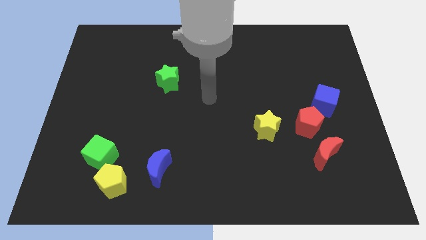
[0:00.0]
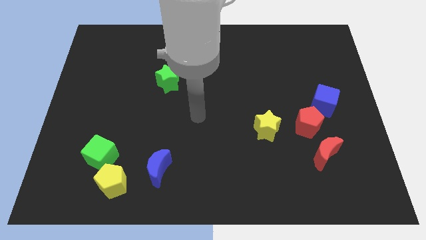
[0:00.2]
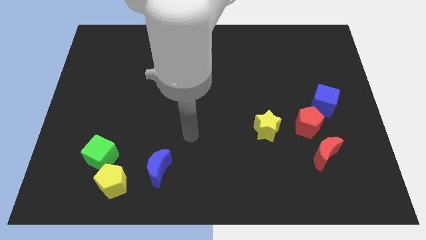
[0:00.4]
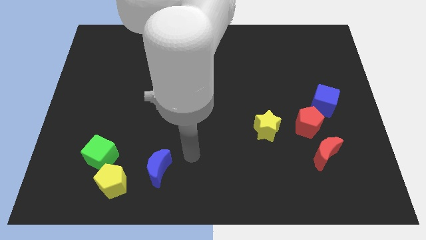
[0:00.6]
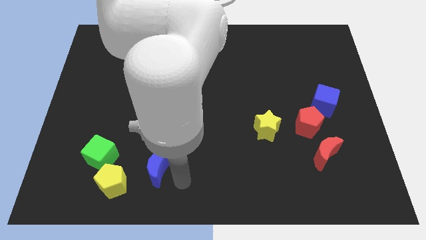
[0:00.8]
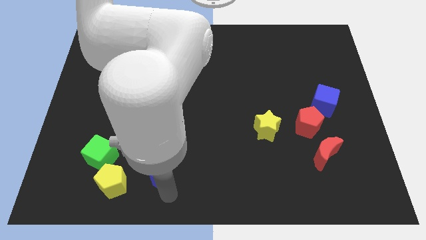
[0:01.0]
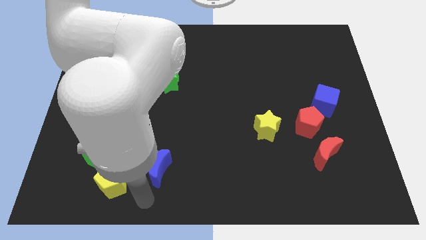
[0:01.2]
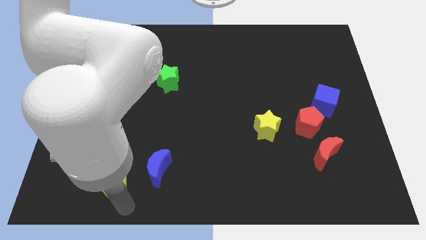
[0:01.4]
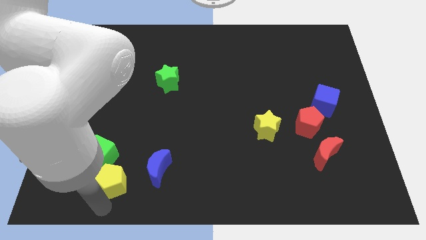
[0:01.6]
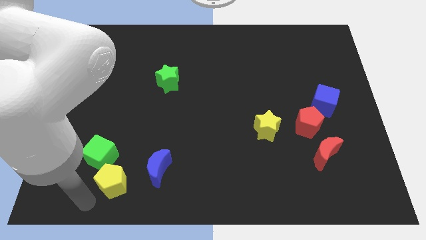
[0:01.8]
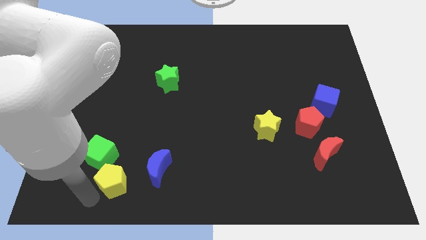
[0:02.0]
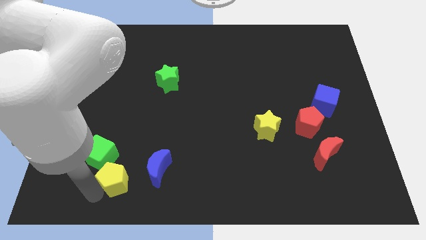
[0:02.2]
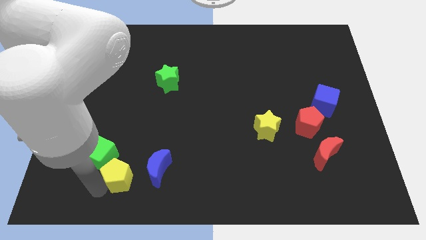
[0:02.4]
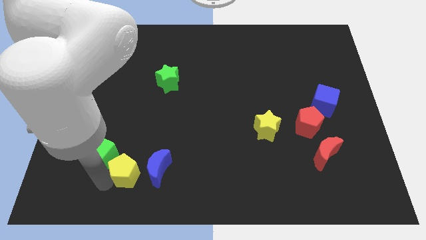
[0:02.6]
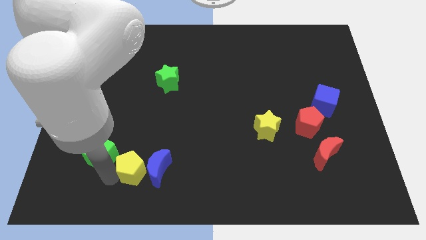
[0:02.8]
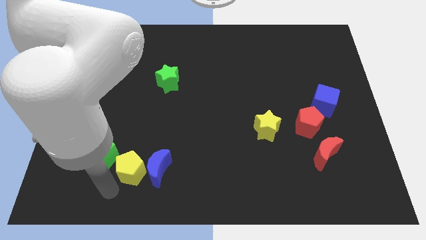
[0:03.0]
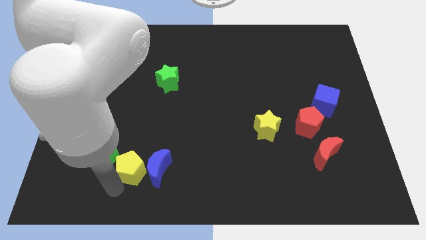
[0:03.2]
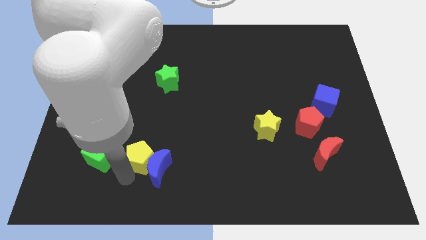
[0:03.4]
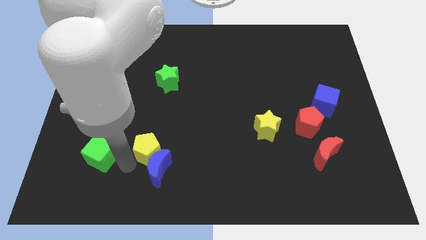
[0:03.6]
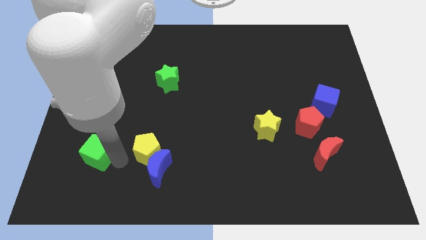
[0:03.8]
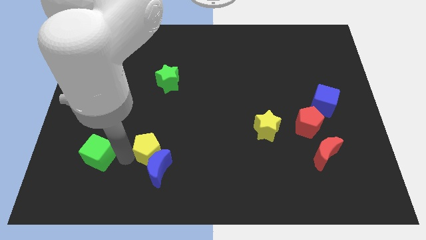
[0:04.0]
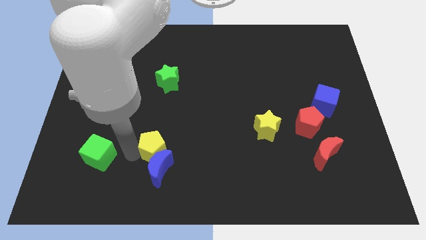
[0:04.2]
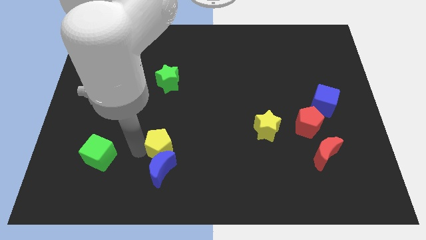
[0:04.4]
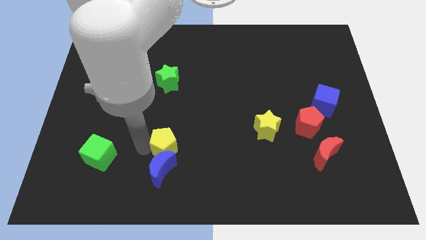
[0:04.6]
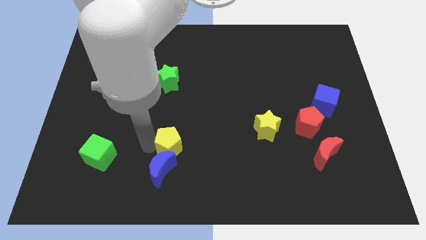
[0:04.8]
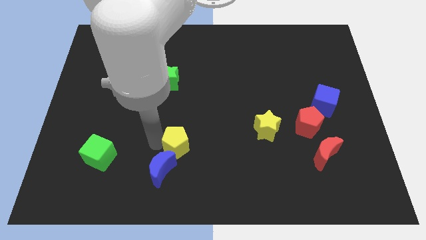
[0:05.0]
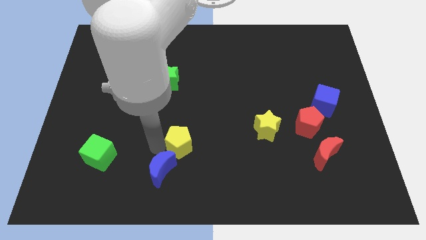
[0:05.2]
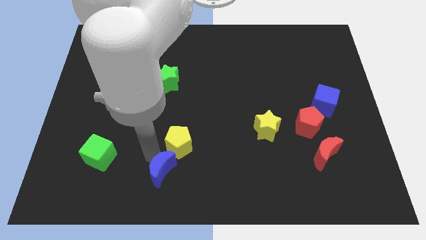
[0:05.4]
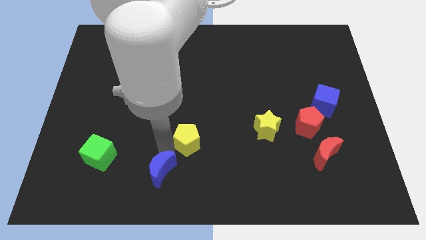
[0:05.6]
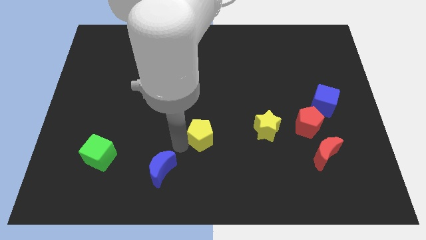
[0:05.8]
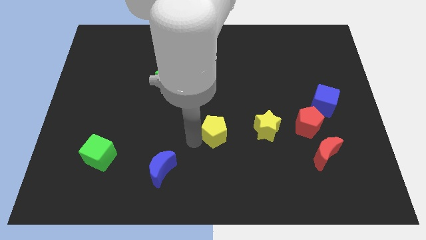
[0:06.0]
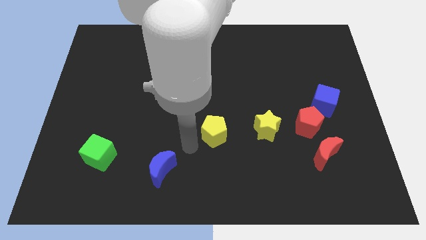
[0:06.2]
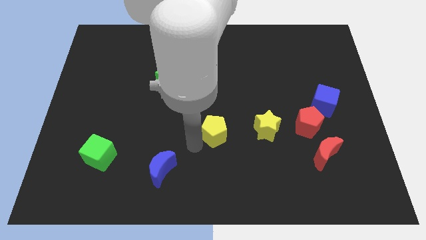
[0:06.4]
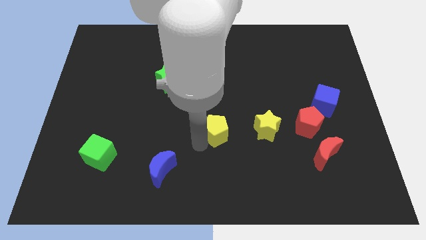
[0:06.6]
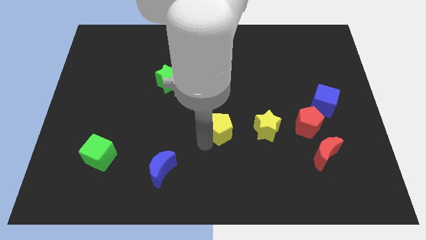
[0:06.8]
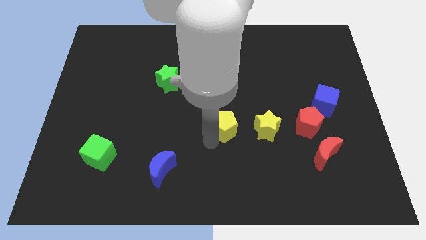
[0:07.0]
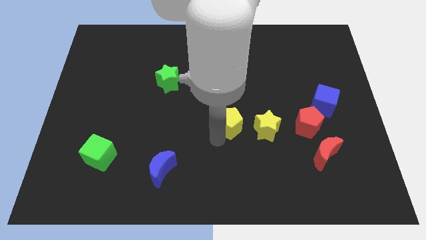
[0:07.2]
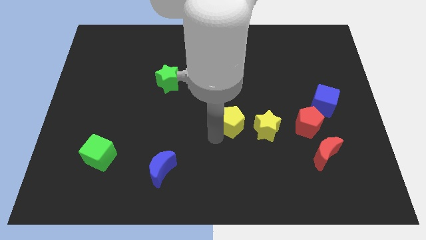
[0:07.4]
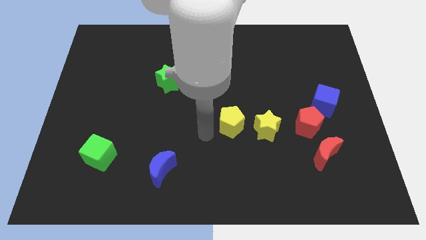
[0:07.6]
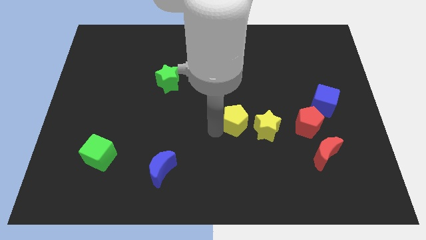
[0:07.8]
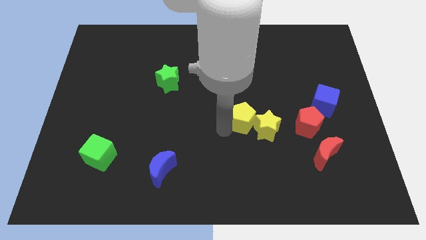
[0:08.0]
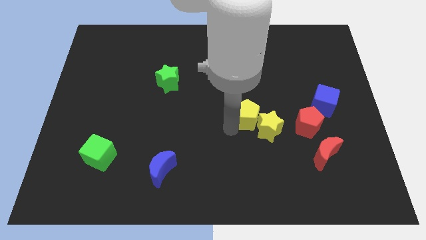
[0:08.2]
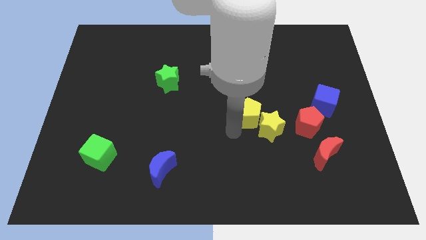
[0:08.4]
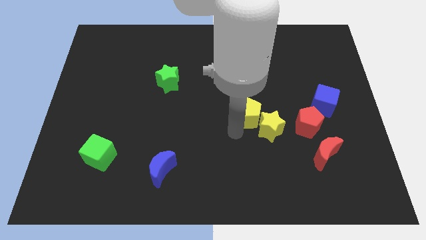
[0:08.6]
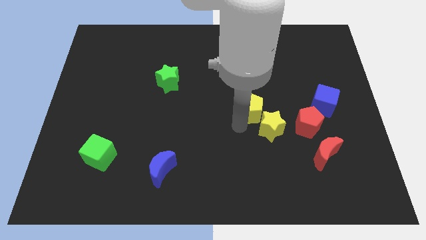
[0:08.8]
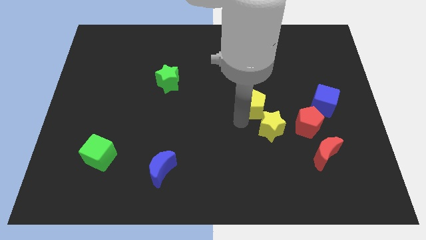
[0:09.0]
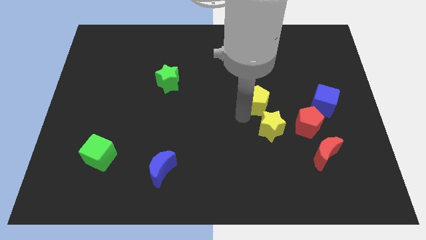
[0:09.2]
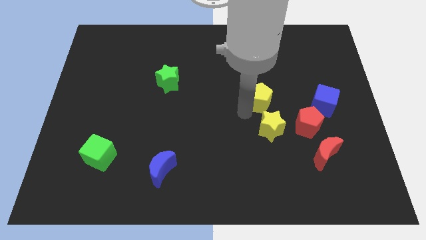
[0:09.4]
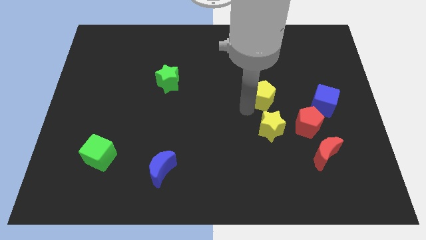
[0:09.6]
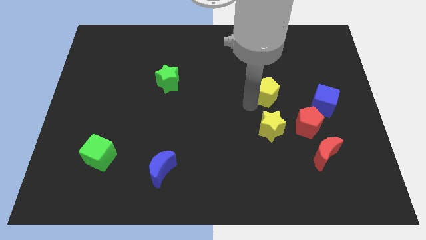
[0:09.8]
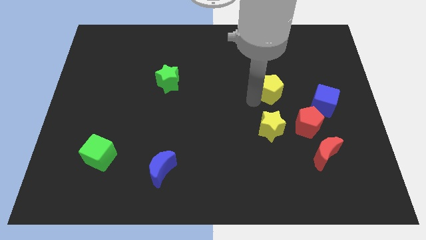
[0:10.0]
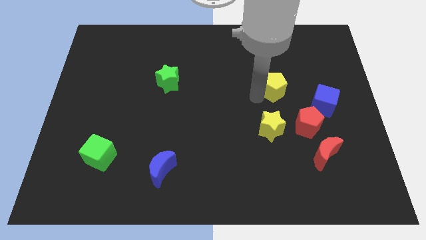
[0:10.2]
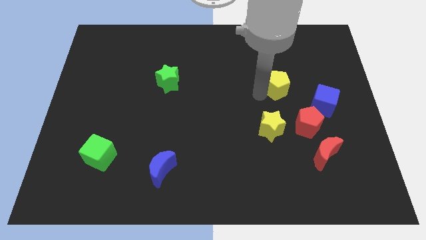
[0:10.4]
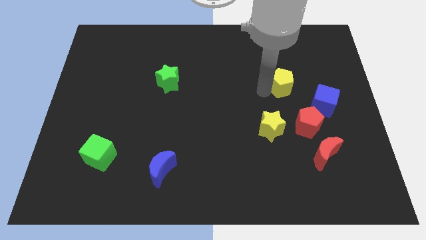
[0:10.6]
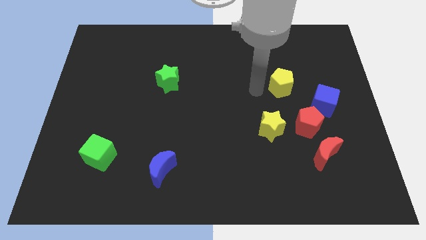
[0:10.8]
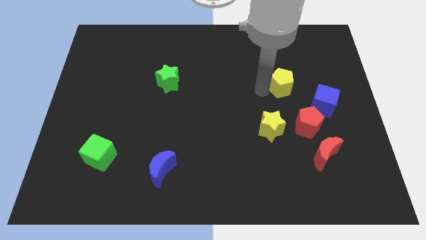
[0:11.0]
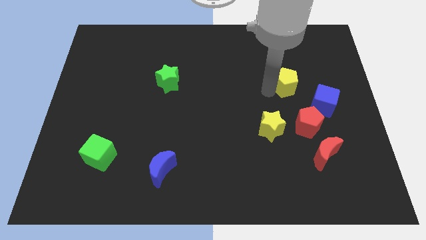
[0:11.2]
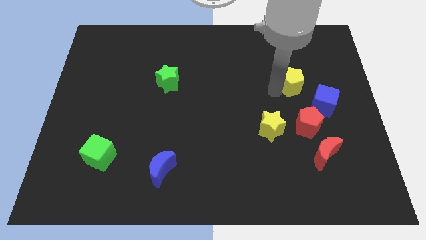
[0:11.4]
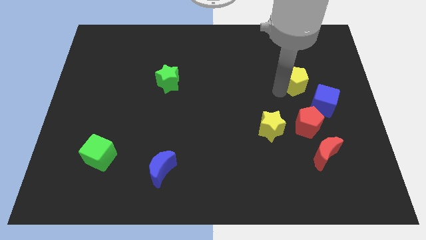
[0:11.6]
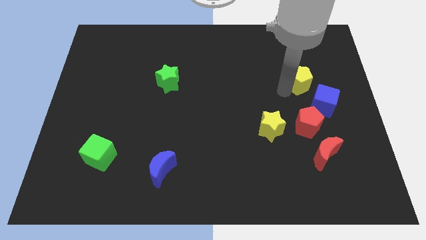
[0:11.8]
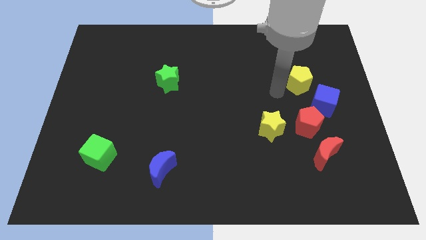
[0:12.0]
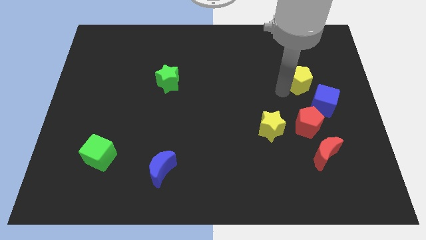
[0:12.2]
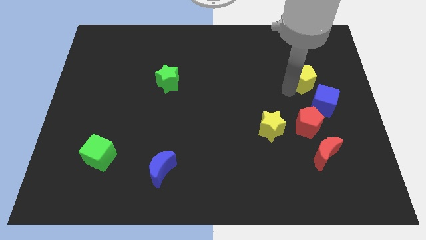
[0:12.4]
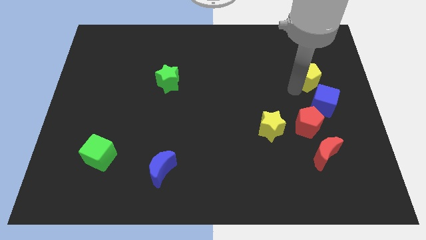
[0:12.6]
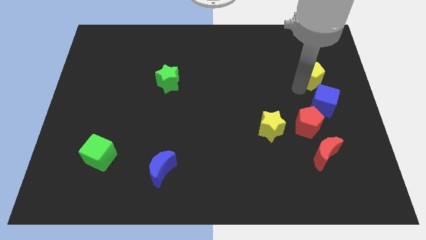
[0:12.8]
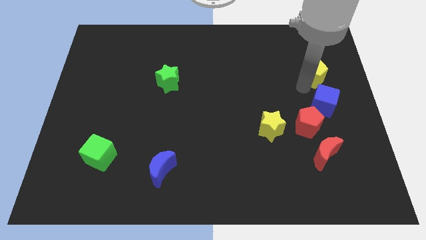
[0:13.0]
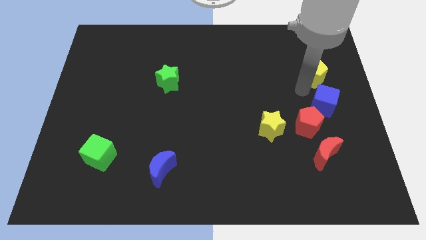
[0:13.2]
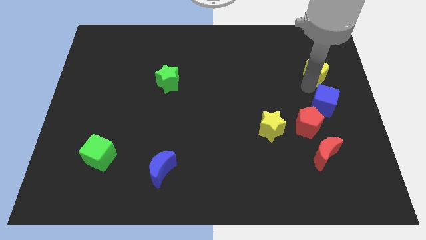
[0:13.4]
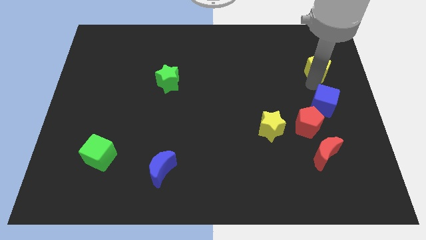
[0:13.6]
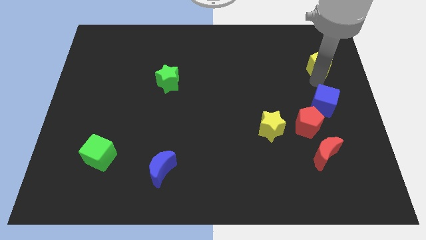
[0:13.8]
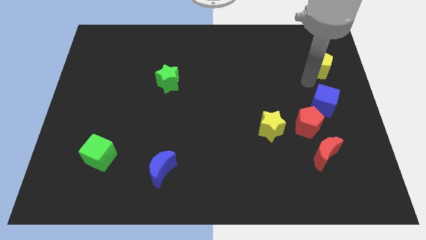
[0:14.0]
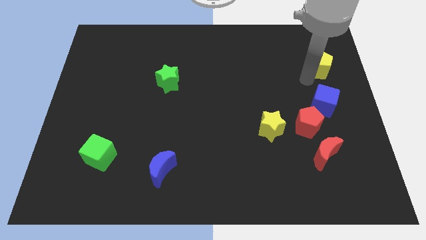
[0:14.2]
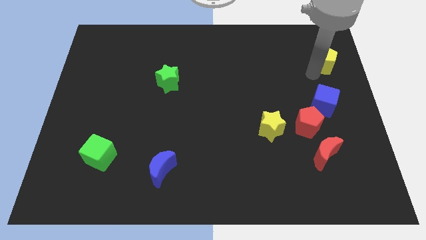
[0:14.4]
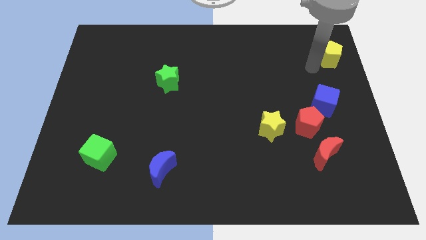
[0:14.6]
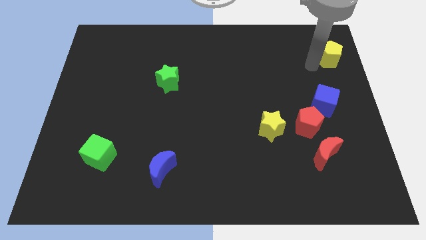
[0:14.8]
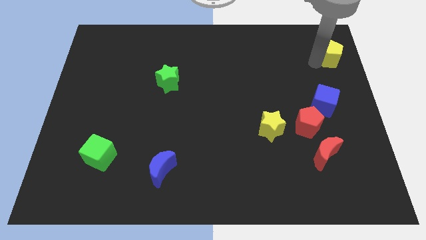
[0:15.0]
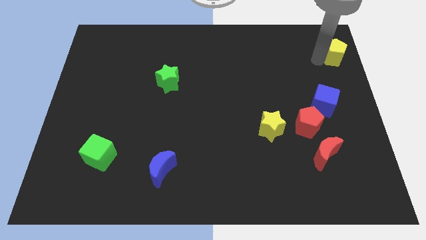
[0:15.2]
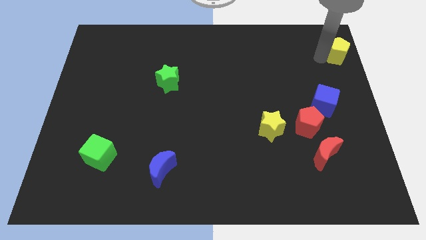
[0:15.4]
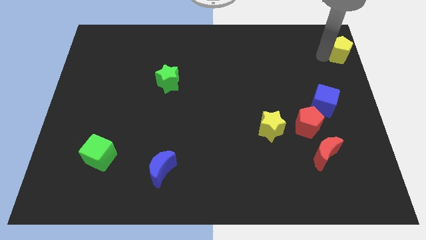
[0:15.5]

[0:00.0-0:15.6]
put the yellow pentagon to the top right of the board
